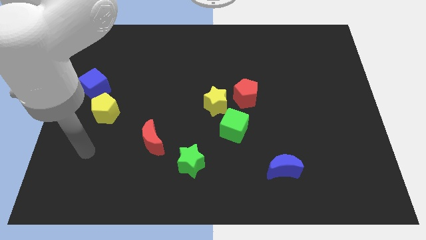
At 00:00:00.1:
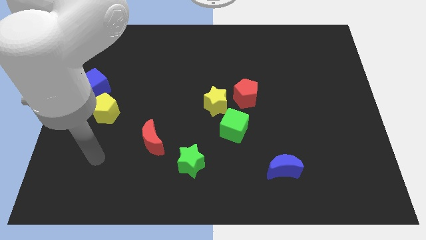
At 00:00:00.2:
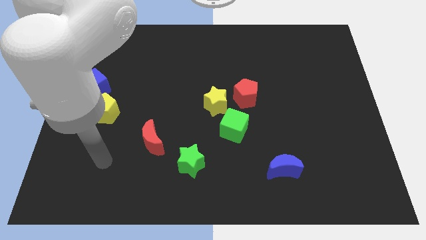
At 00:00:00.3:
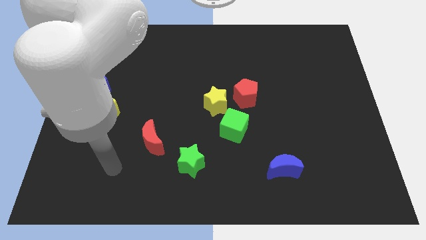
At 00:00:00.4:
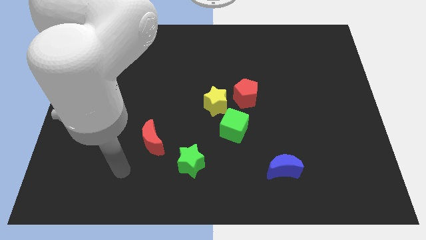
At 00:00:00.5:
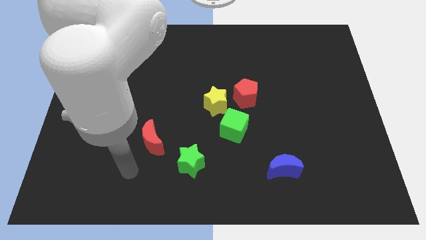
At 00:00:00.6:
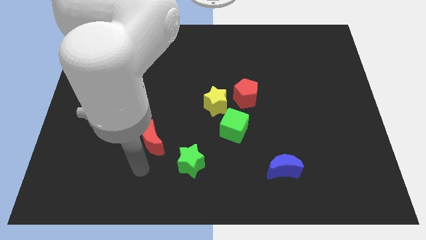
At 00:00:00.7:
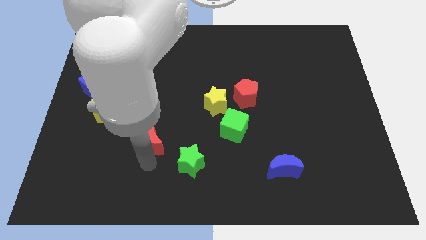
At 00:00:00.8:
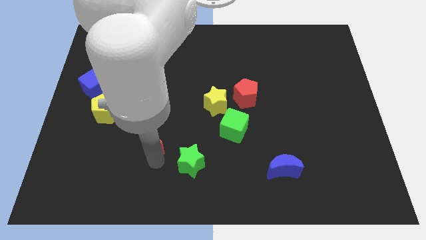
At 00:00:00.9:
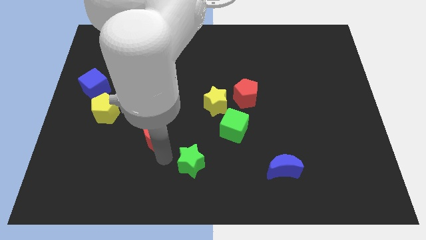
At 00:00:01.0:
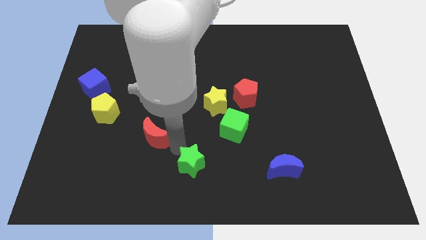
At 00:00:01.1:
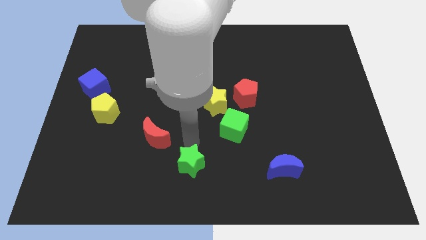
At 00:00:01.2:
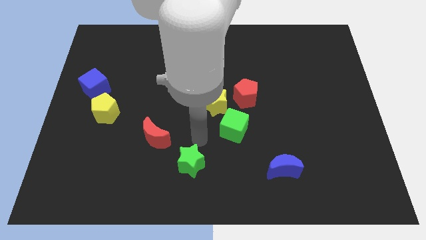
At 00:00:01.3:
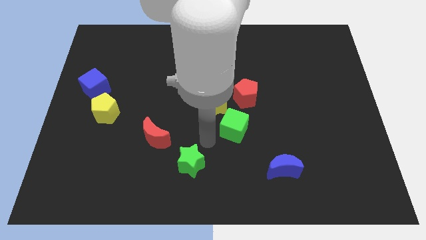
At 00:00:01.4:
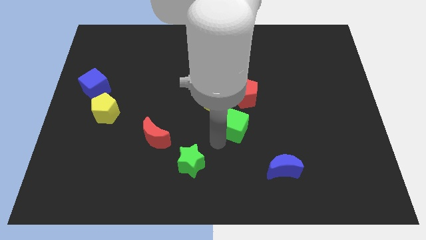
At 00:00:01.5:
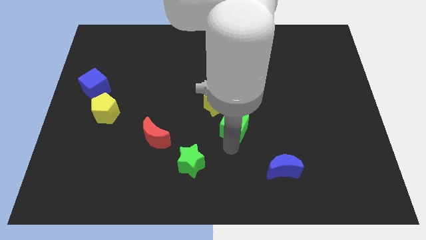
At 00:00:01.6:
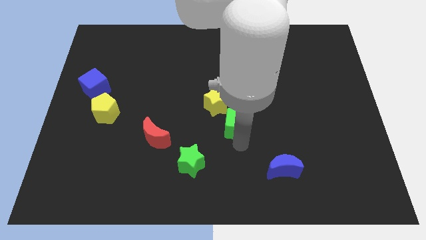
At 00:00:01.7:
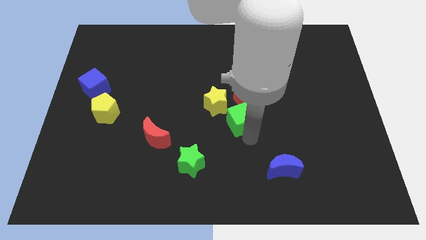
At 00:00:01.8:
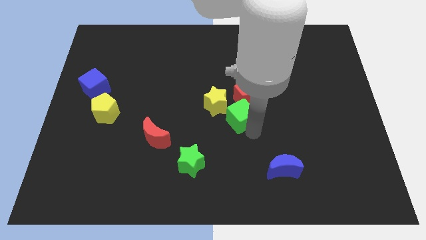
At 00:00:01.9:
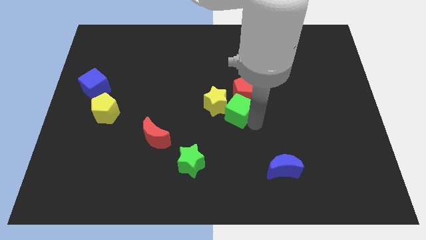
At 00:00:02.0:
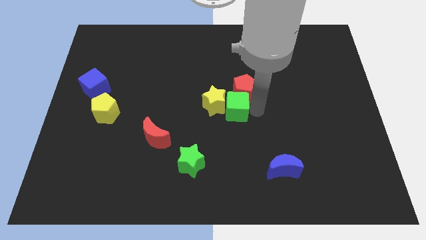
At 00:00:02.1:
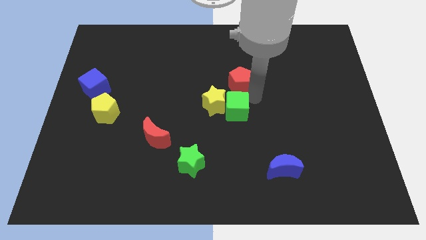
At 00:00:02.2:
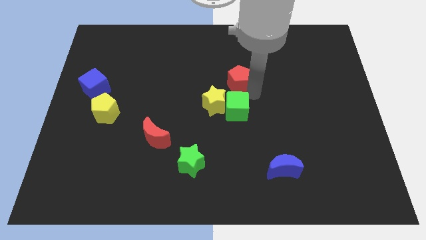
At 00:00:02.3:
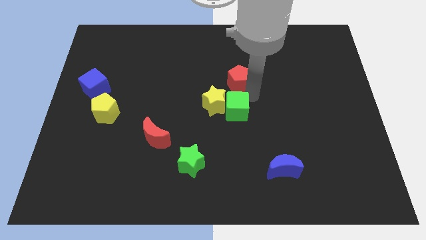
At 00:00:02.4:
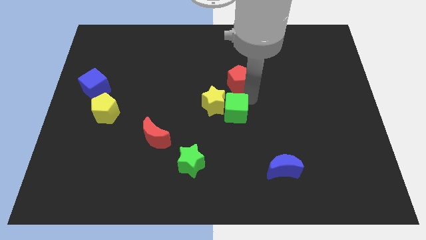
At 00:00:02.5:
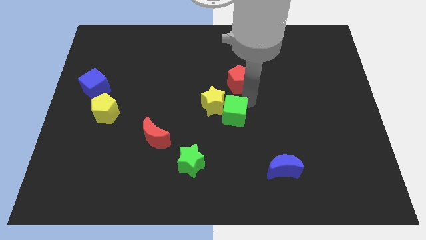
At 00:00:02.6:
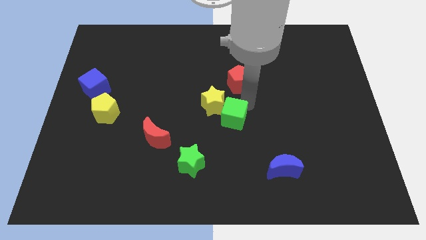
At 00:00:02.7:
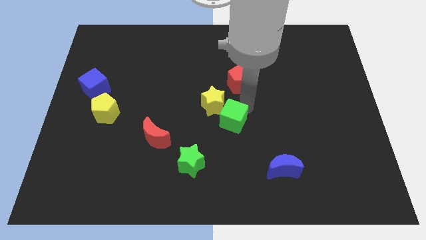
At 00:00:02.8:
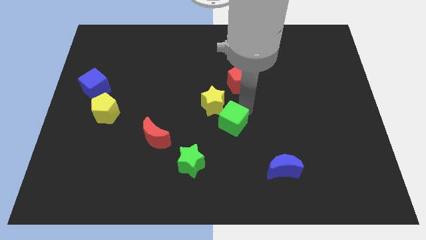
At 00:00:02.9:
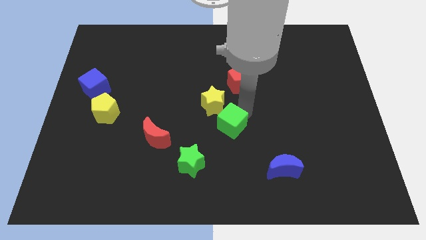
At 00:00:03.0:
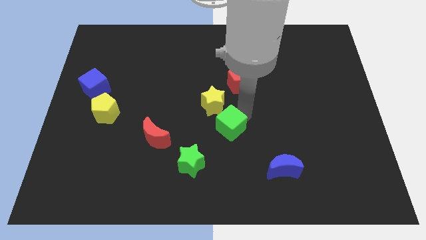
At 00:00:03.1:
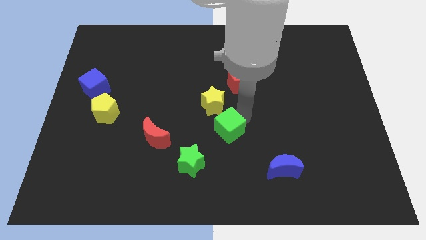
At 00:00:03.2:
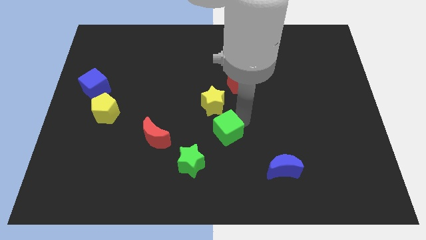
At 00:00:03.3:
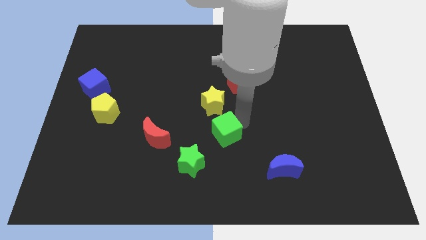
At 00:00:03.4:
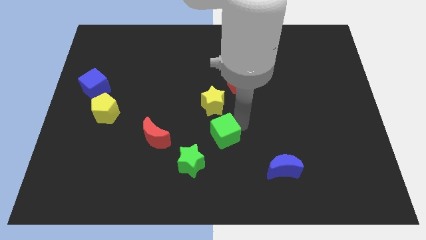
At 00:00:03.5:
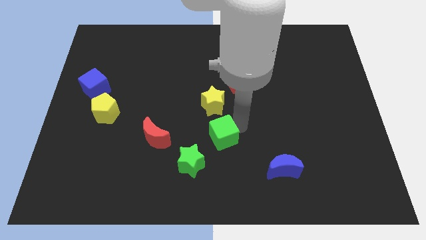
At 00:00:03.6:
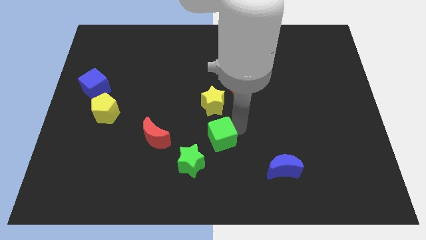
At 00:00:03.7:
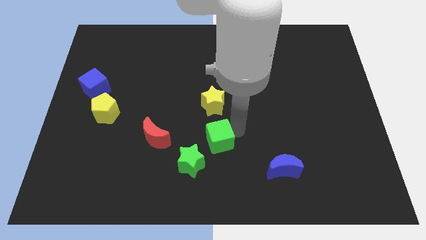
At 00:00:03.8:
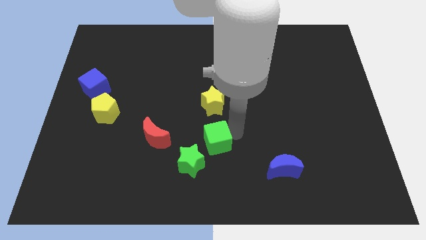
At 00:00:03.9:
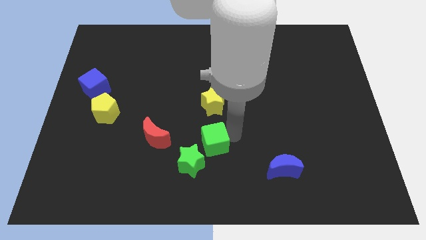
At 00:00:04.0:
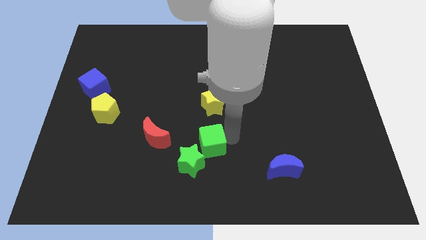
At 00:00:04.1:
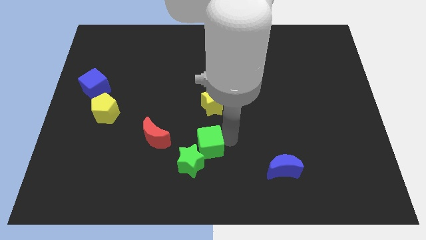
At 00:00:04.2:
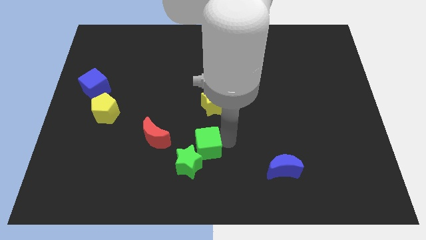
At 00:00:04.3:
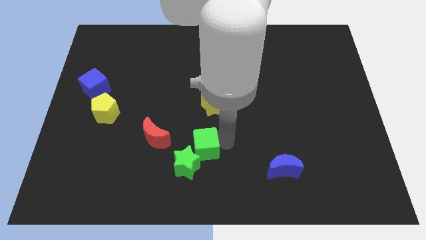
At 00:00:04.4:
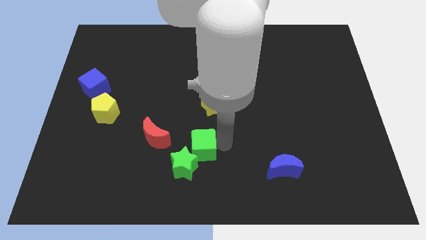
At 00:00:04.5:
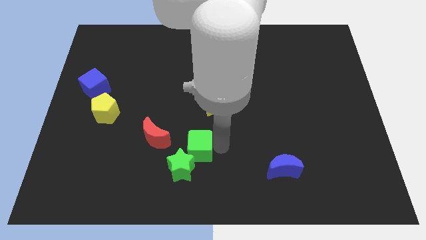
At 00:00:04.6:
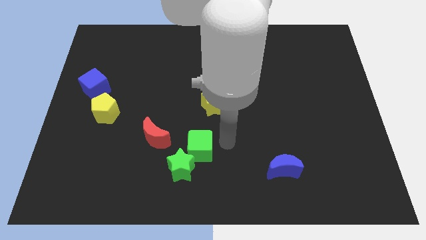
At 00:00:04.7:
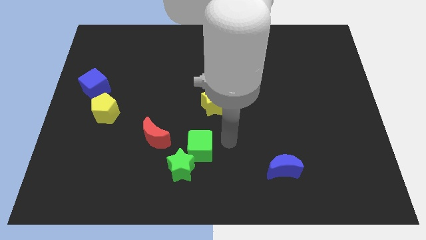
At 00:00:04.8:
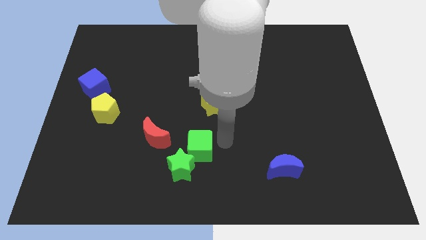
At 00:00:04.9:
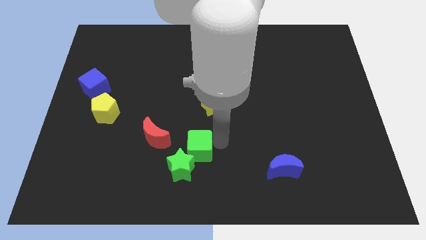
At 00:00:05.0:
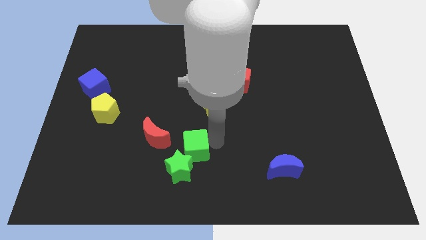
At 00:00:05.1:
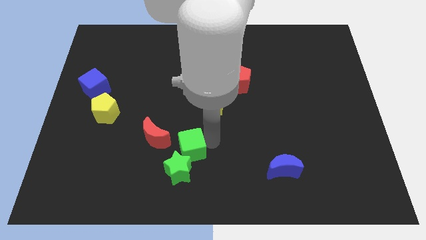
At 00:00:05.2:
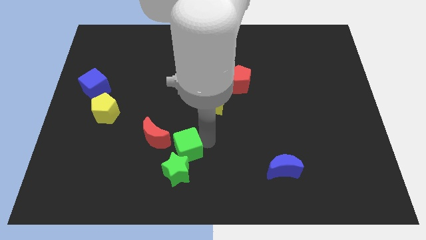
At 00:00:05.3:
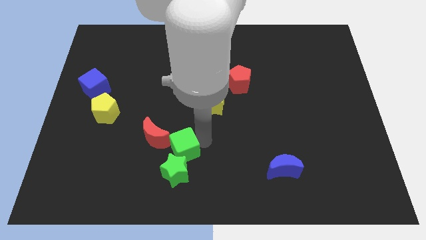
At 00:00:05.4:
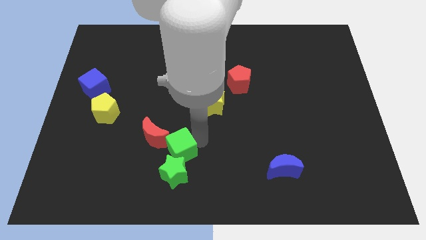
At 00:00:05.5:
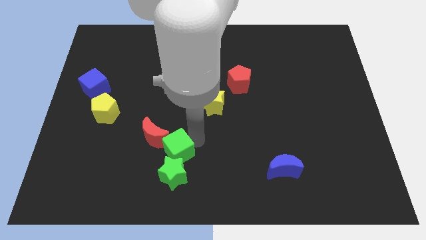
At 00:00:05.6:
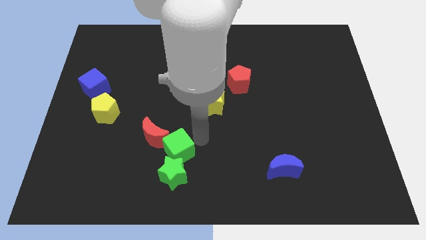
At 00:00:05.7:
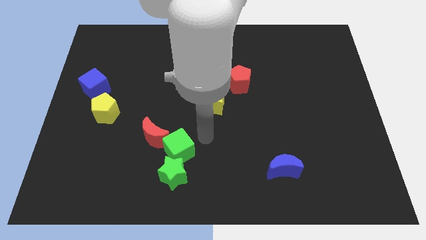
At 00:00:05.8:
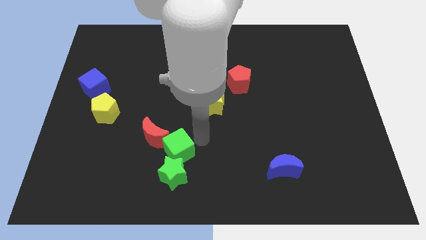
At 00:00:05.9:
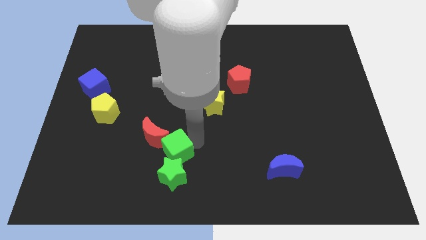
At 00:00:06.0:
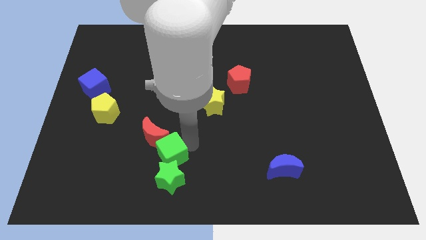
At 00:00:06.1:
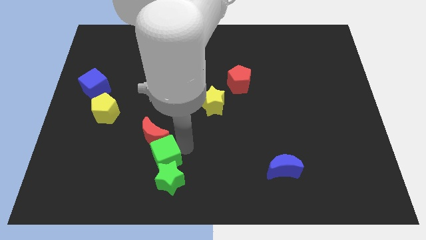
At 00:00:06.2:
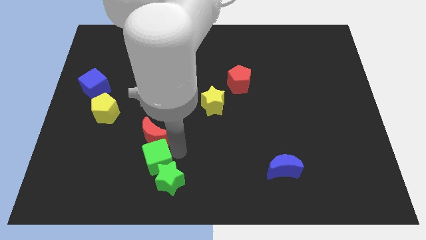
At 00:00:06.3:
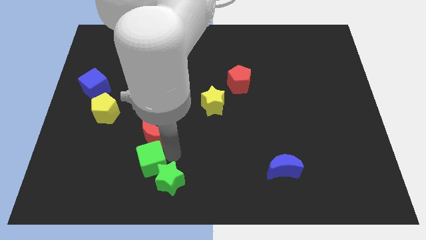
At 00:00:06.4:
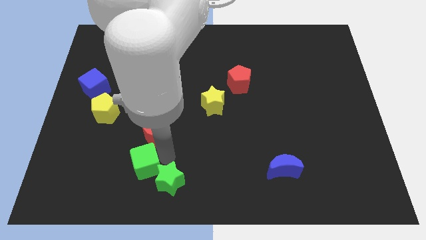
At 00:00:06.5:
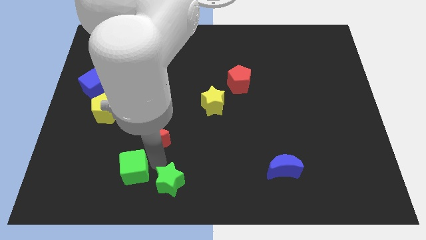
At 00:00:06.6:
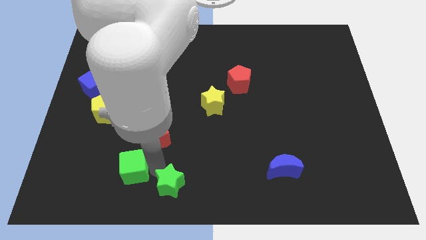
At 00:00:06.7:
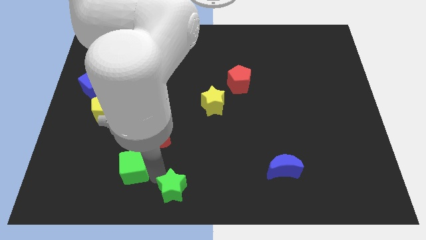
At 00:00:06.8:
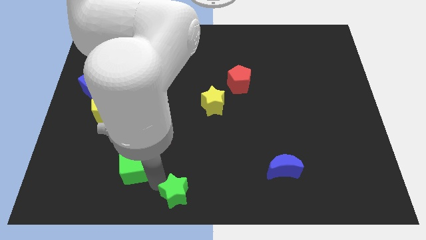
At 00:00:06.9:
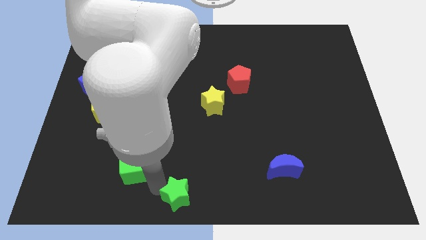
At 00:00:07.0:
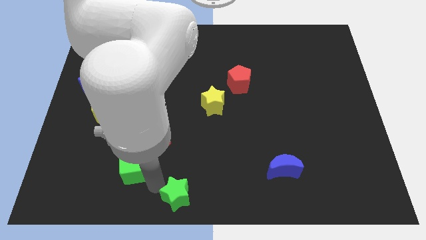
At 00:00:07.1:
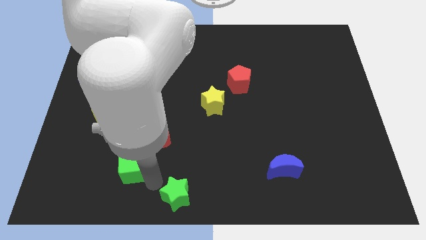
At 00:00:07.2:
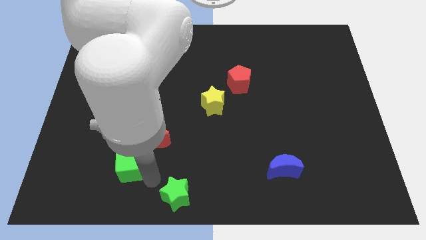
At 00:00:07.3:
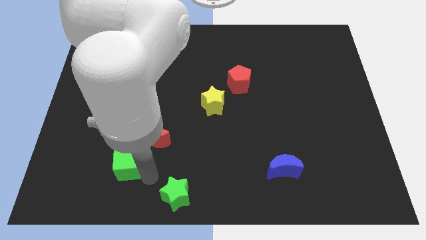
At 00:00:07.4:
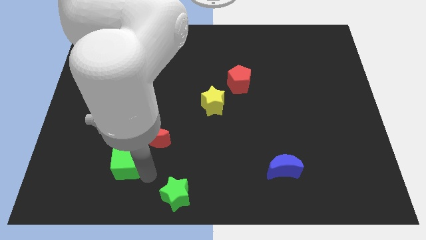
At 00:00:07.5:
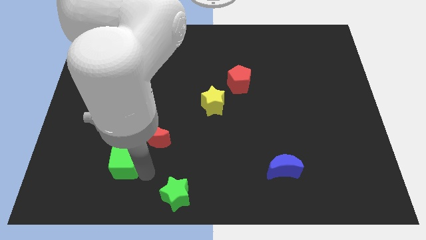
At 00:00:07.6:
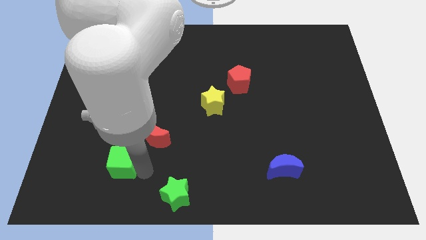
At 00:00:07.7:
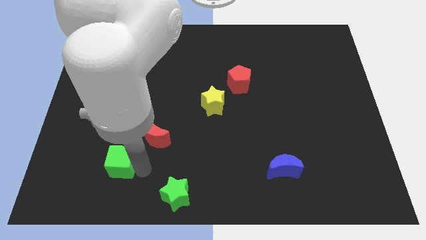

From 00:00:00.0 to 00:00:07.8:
move the green cube left
